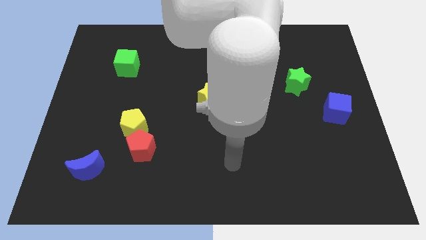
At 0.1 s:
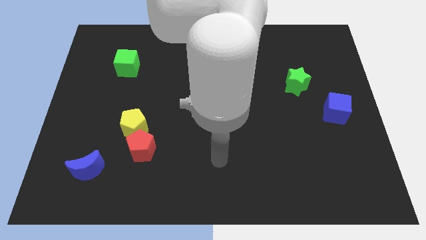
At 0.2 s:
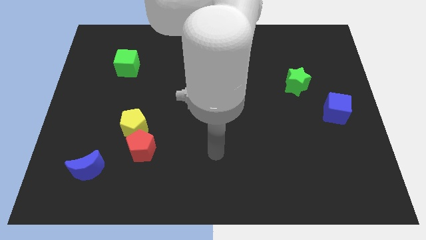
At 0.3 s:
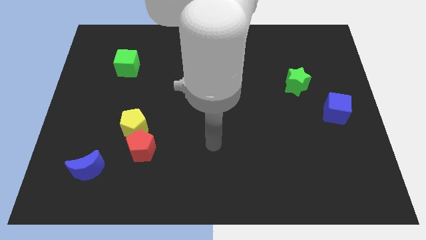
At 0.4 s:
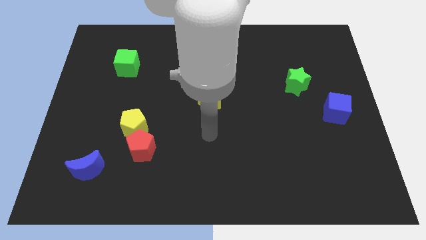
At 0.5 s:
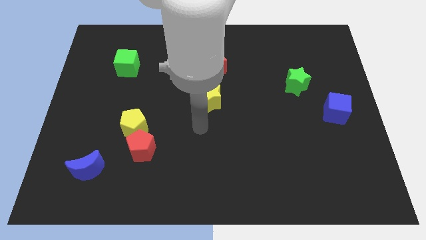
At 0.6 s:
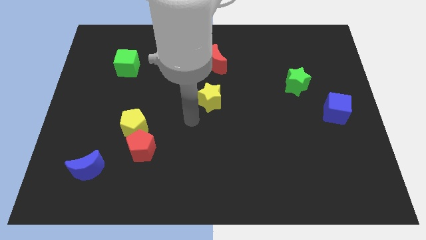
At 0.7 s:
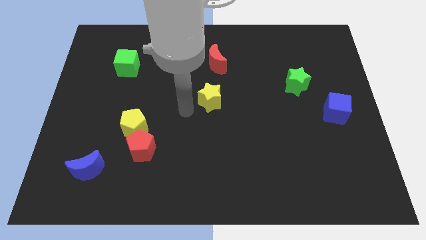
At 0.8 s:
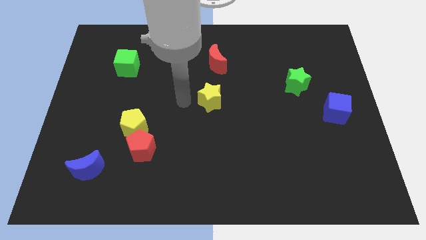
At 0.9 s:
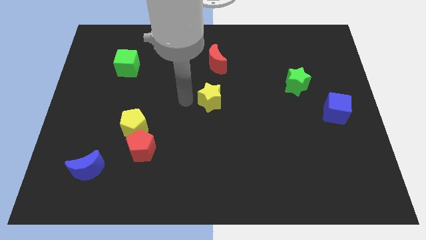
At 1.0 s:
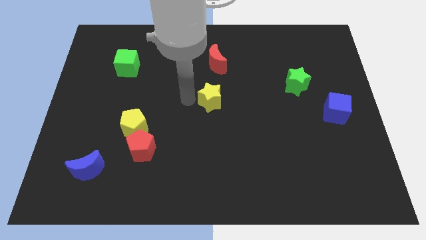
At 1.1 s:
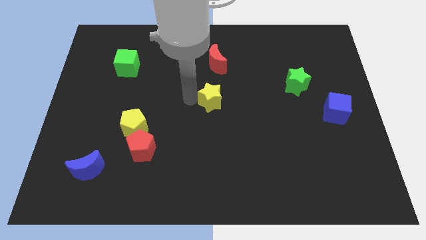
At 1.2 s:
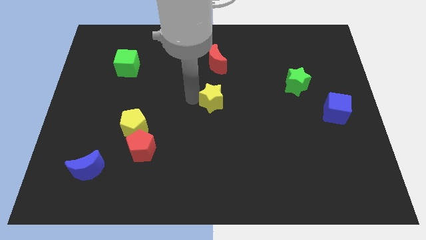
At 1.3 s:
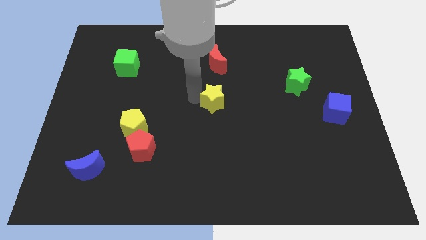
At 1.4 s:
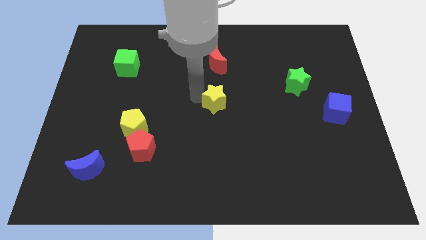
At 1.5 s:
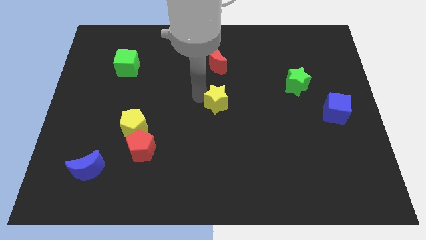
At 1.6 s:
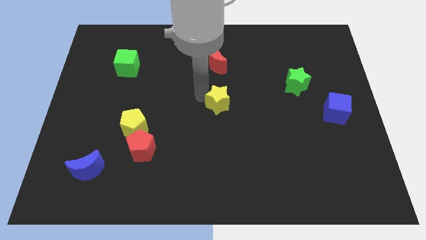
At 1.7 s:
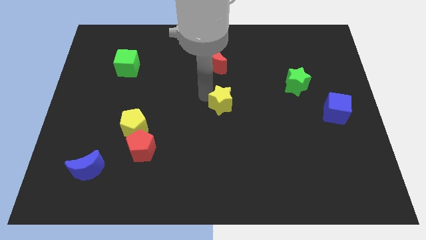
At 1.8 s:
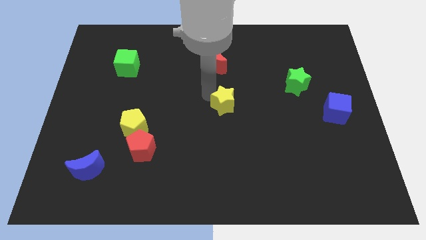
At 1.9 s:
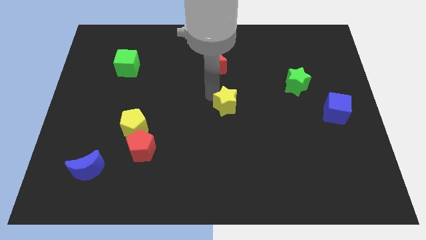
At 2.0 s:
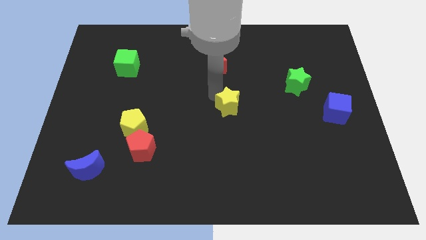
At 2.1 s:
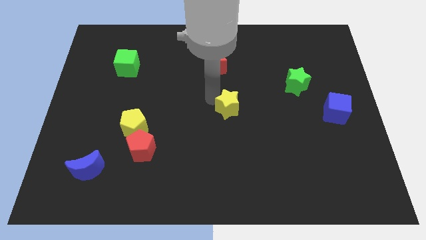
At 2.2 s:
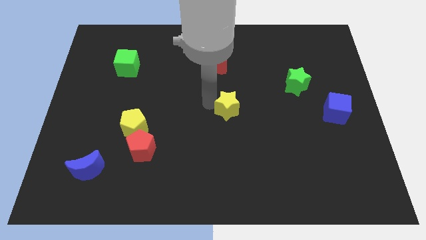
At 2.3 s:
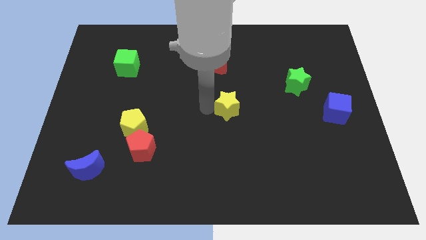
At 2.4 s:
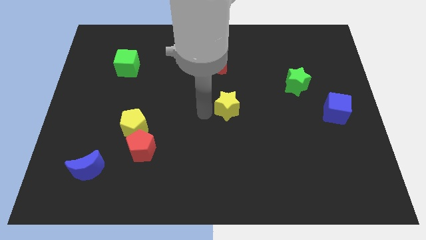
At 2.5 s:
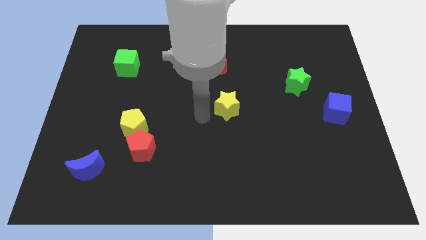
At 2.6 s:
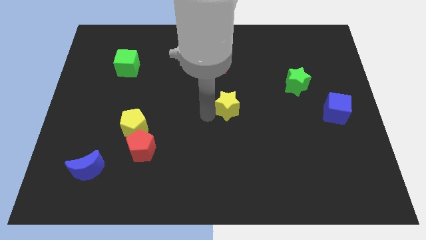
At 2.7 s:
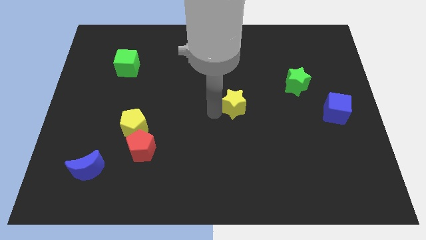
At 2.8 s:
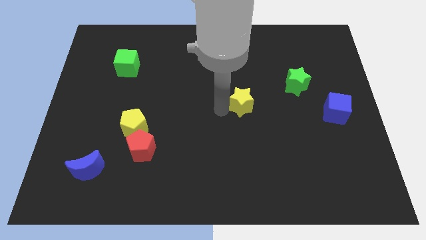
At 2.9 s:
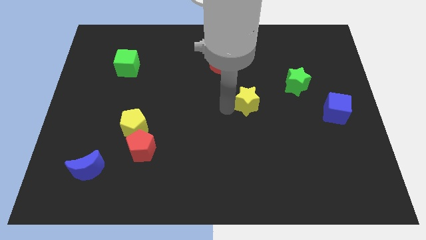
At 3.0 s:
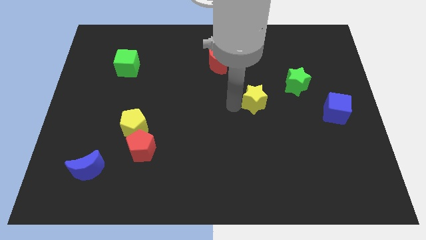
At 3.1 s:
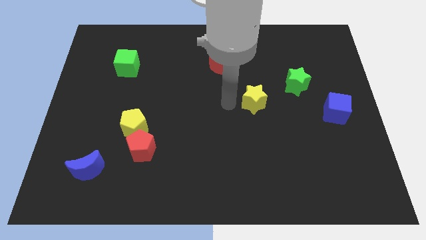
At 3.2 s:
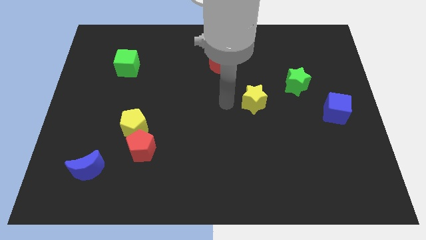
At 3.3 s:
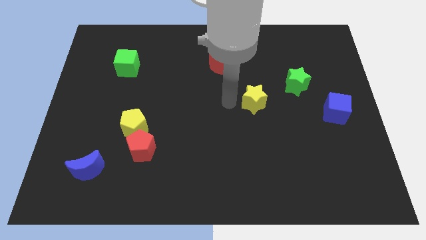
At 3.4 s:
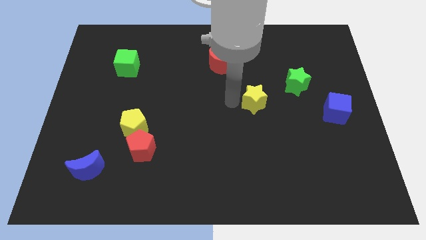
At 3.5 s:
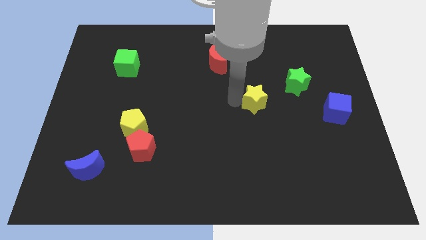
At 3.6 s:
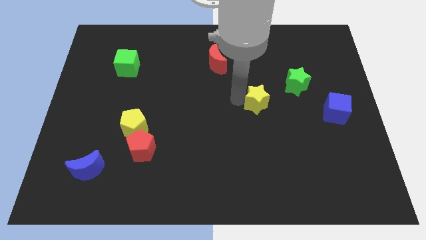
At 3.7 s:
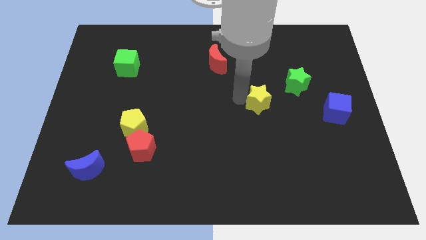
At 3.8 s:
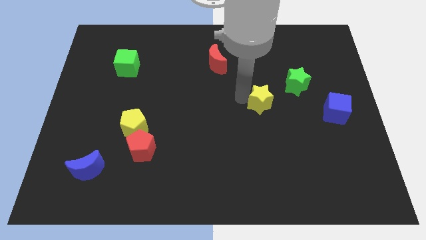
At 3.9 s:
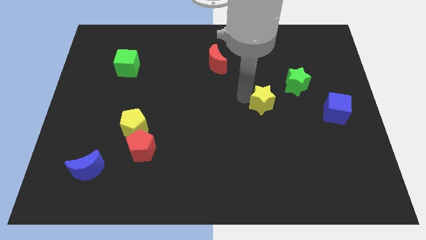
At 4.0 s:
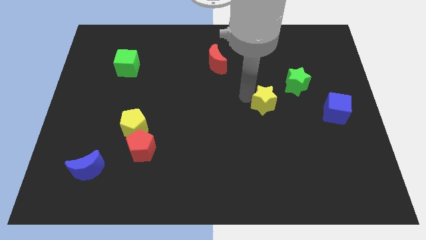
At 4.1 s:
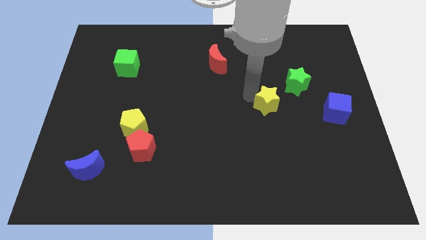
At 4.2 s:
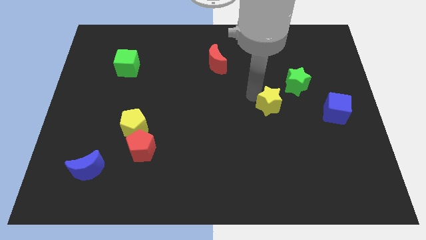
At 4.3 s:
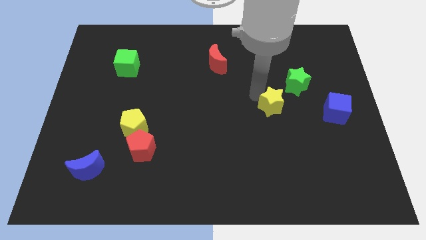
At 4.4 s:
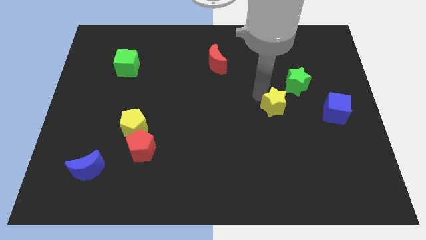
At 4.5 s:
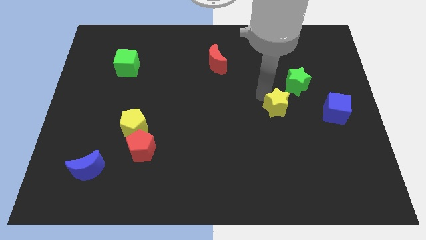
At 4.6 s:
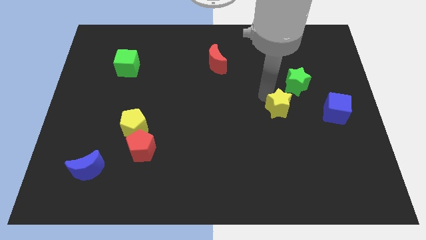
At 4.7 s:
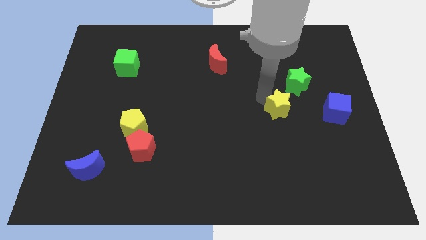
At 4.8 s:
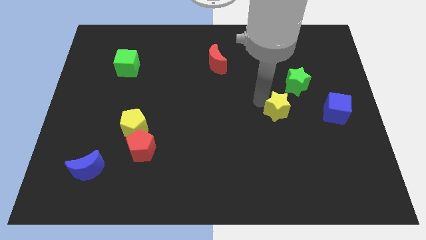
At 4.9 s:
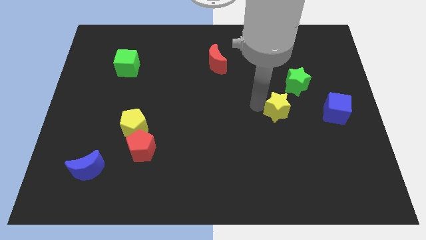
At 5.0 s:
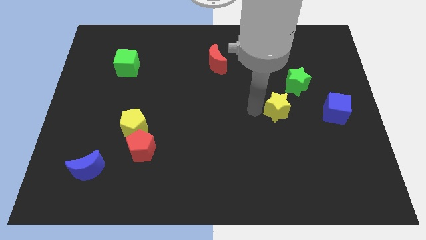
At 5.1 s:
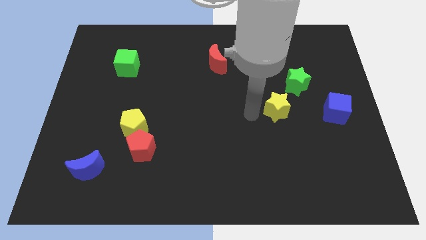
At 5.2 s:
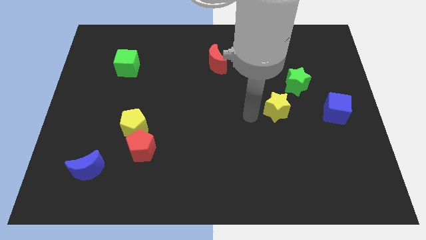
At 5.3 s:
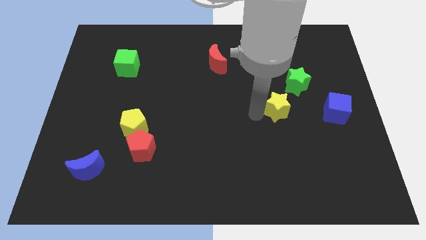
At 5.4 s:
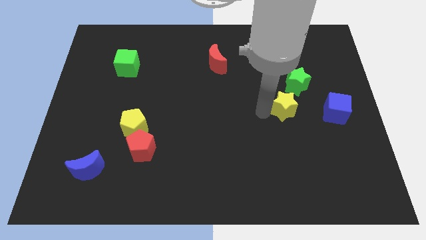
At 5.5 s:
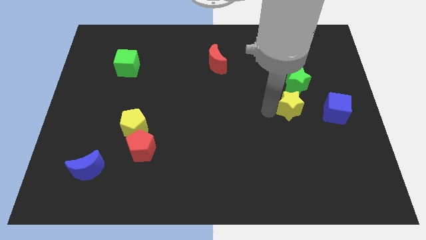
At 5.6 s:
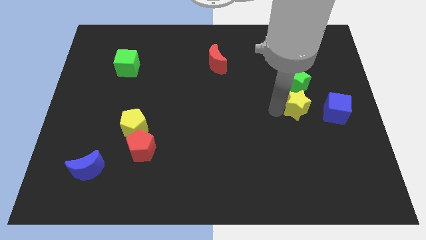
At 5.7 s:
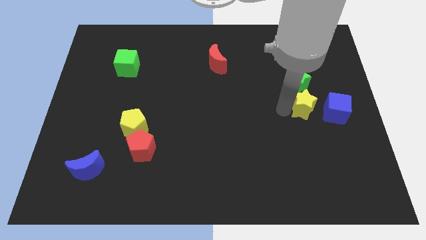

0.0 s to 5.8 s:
slide the yellow star to the top left of the blue cube

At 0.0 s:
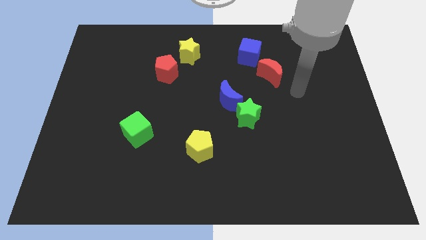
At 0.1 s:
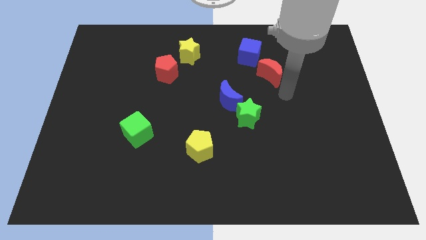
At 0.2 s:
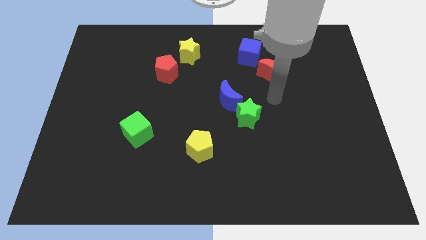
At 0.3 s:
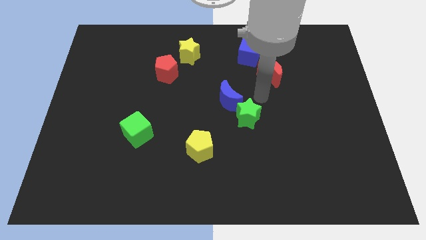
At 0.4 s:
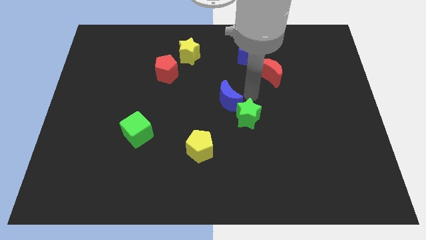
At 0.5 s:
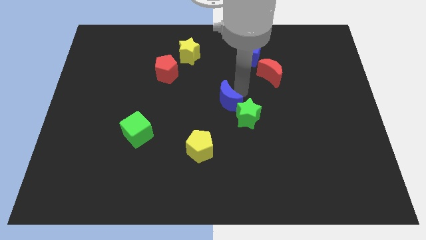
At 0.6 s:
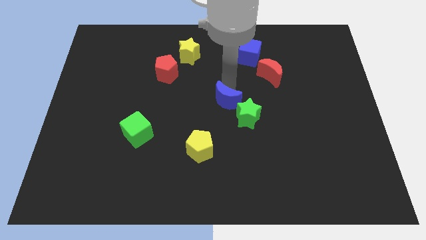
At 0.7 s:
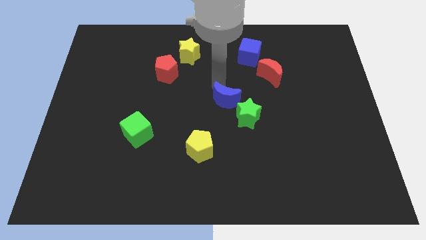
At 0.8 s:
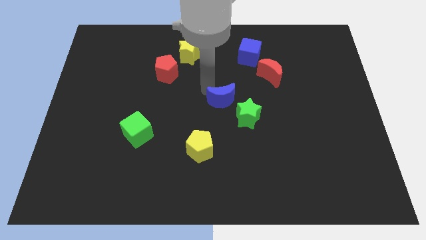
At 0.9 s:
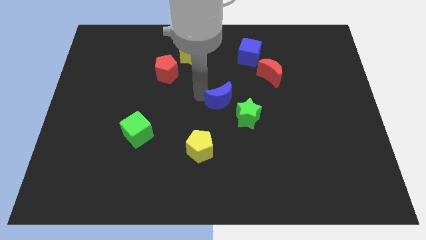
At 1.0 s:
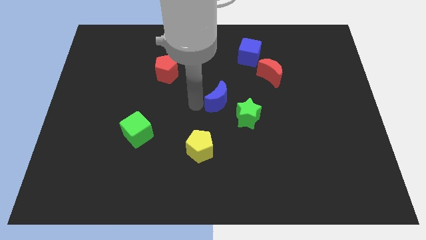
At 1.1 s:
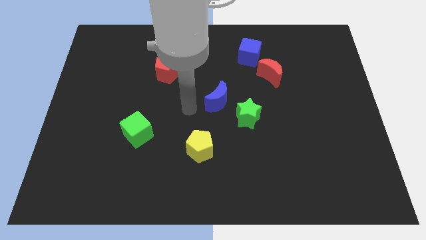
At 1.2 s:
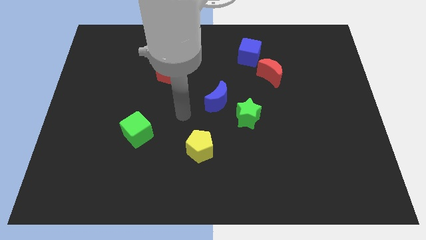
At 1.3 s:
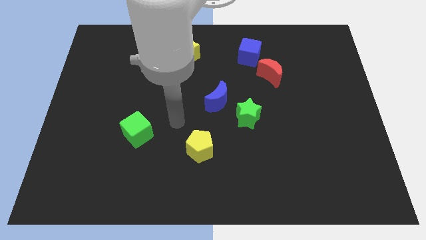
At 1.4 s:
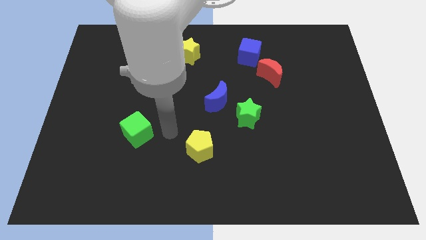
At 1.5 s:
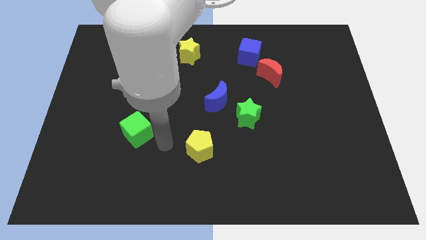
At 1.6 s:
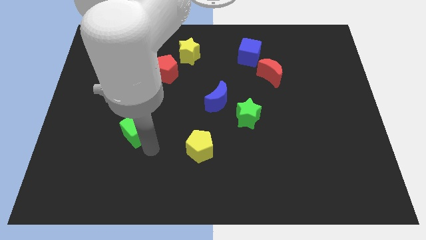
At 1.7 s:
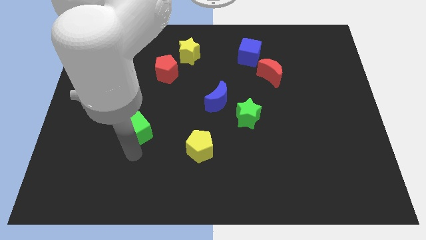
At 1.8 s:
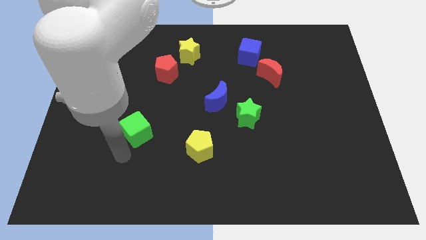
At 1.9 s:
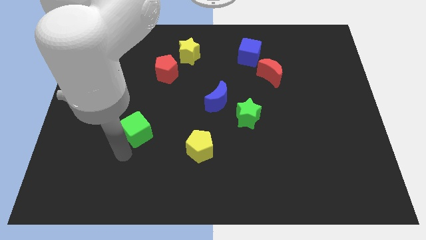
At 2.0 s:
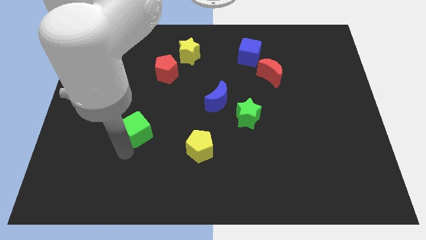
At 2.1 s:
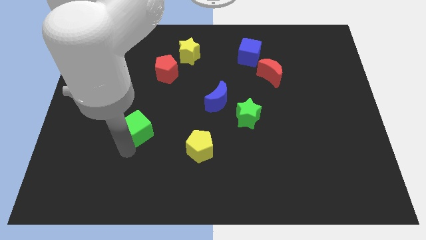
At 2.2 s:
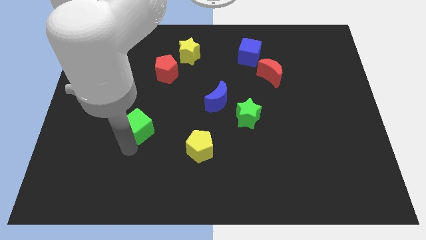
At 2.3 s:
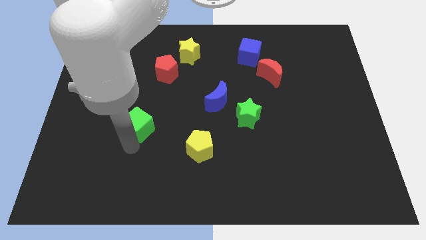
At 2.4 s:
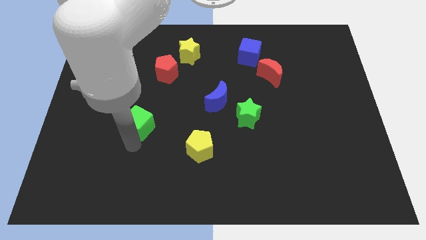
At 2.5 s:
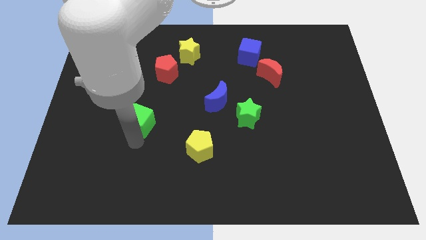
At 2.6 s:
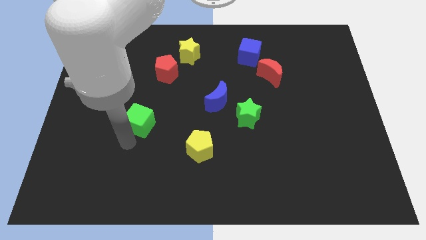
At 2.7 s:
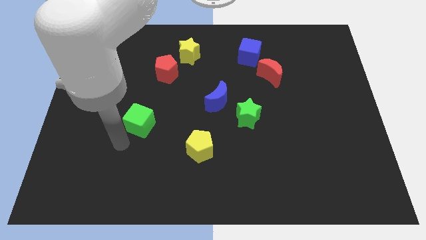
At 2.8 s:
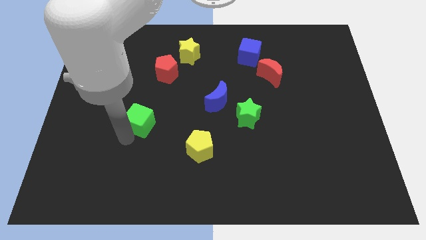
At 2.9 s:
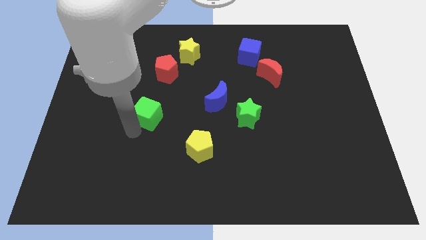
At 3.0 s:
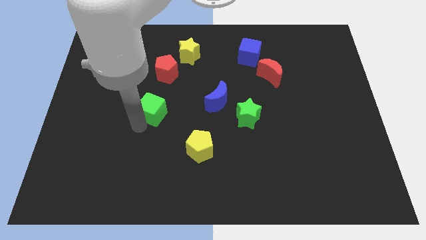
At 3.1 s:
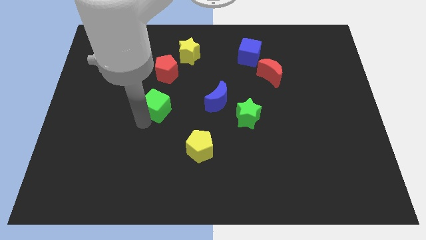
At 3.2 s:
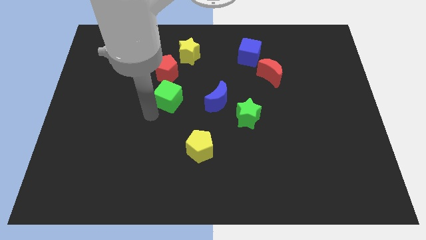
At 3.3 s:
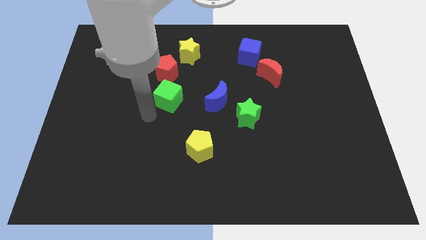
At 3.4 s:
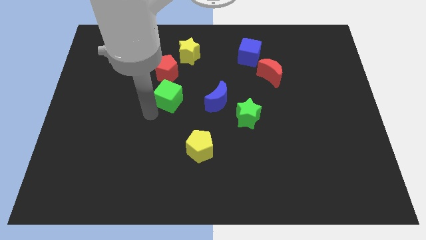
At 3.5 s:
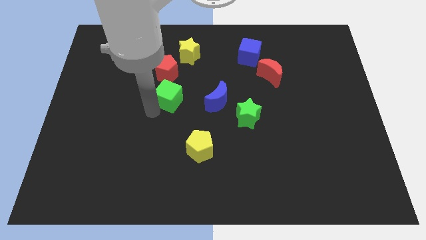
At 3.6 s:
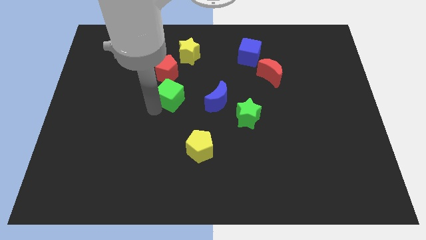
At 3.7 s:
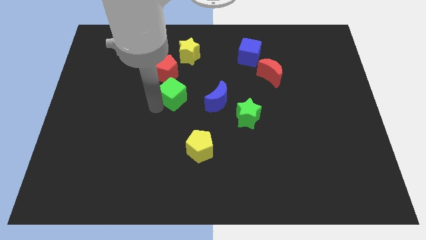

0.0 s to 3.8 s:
put the green cube to the bottom side of the yellow star
